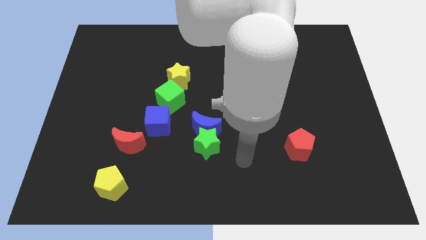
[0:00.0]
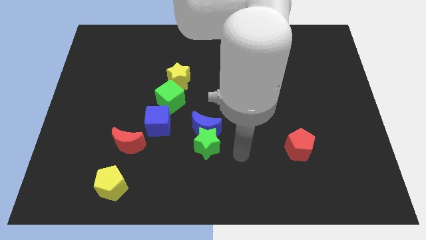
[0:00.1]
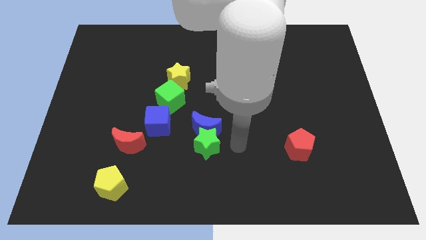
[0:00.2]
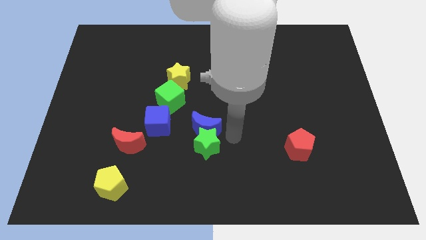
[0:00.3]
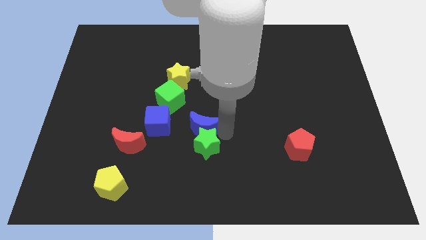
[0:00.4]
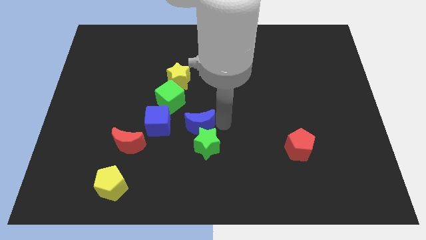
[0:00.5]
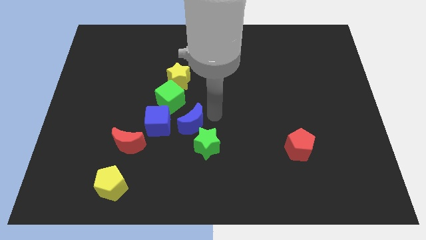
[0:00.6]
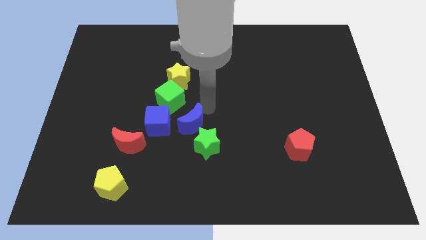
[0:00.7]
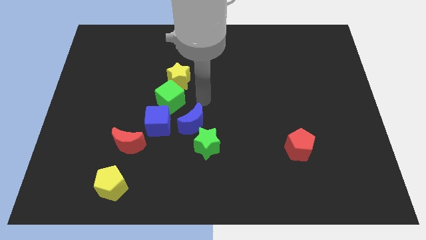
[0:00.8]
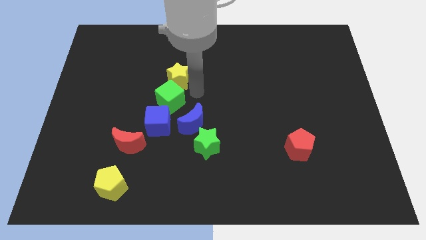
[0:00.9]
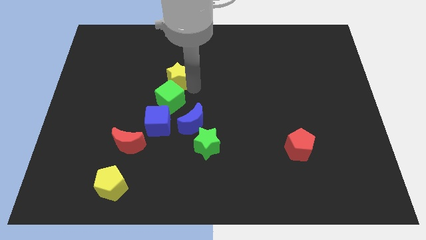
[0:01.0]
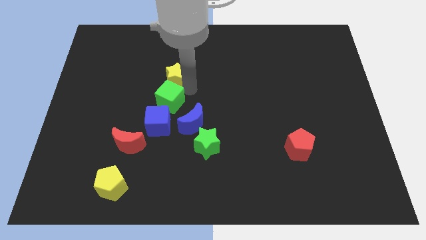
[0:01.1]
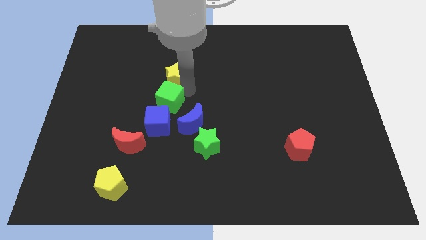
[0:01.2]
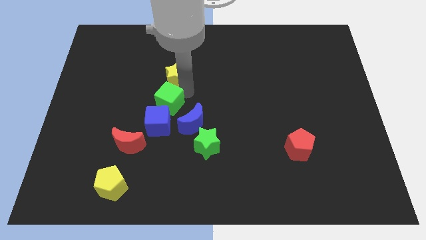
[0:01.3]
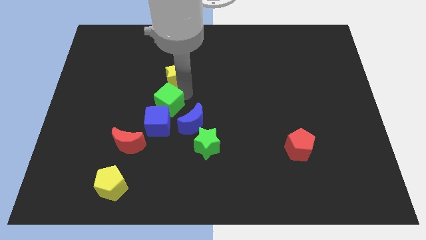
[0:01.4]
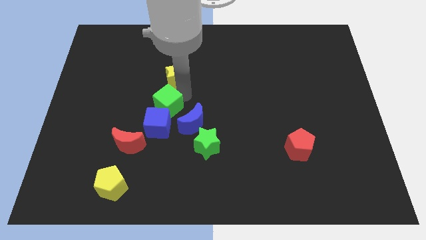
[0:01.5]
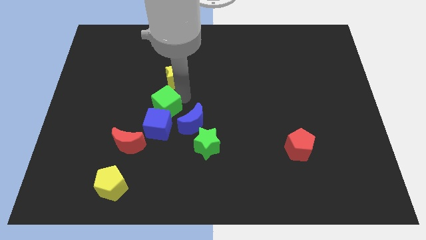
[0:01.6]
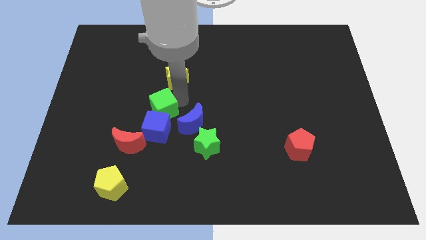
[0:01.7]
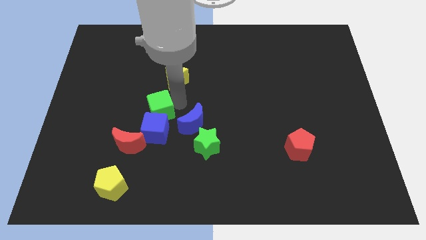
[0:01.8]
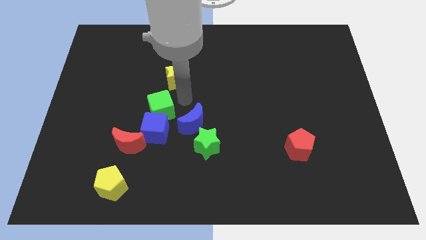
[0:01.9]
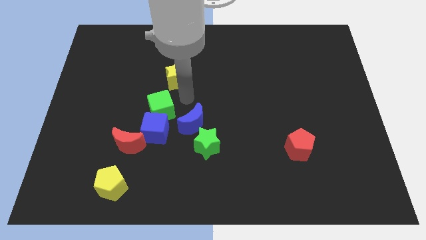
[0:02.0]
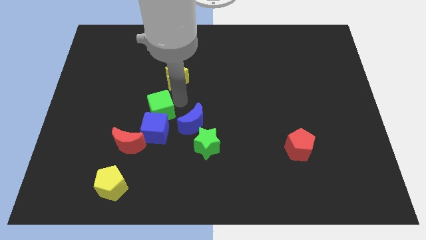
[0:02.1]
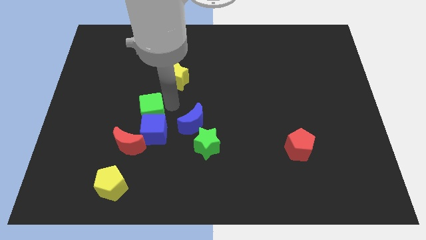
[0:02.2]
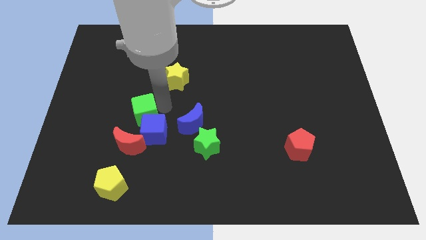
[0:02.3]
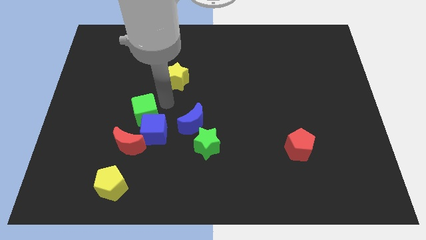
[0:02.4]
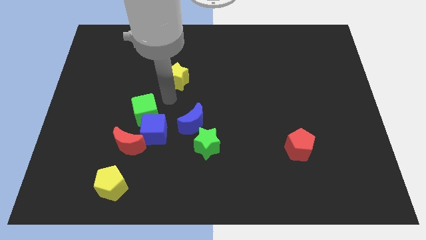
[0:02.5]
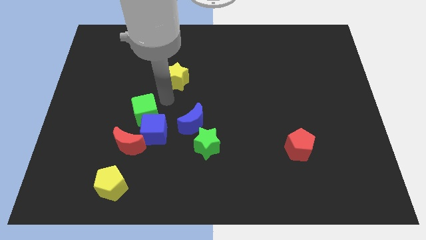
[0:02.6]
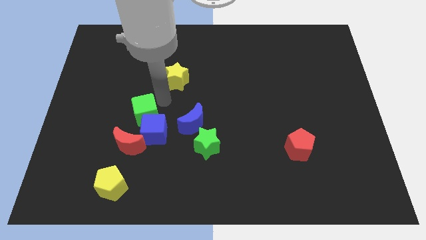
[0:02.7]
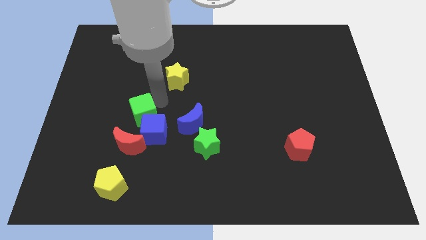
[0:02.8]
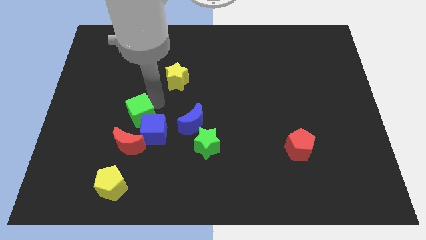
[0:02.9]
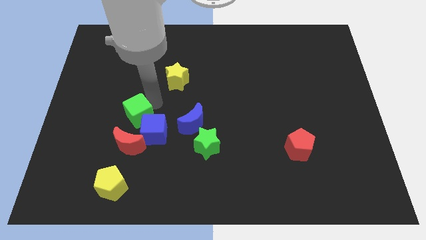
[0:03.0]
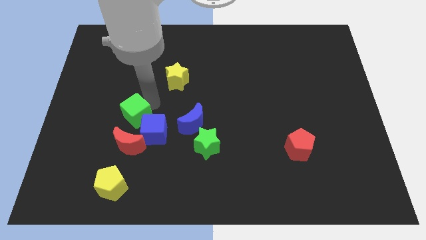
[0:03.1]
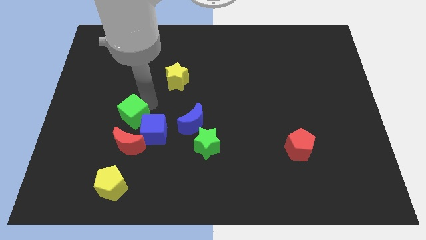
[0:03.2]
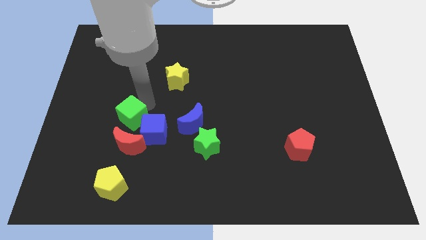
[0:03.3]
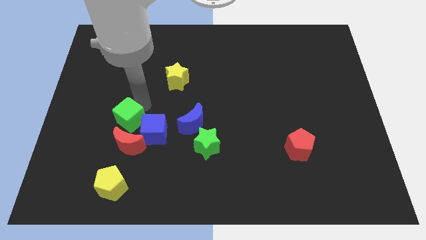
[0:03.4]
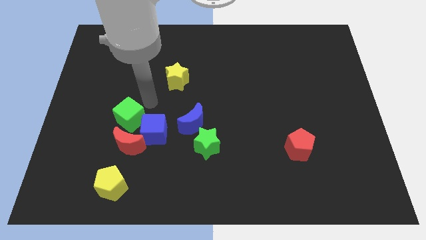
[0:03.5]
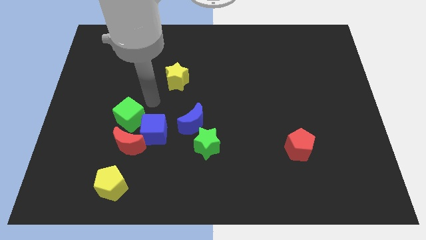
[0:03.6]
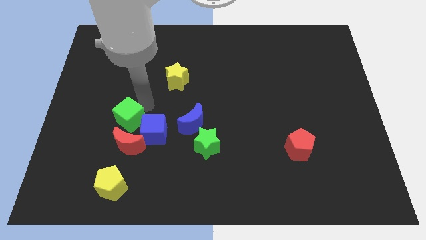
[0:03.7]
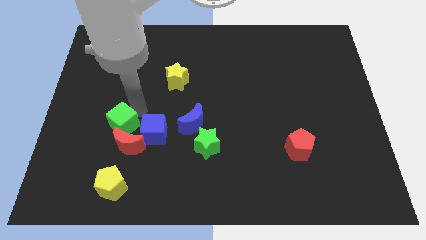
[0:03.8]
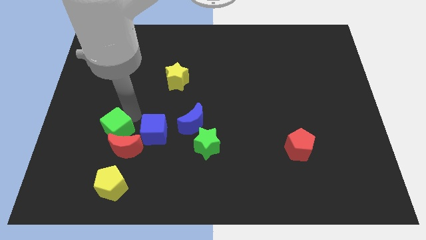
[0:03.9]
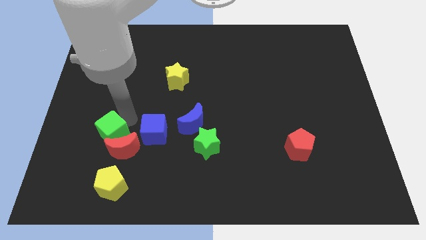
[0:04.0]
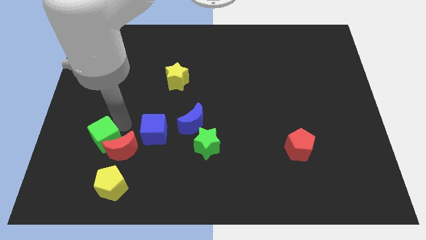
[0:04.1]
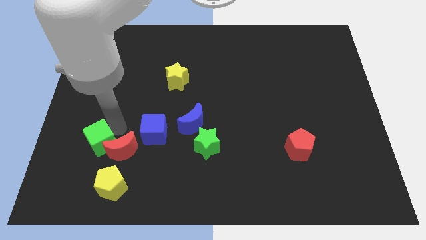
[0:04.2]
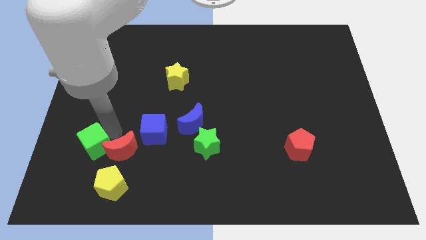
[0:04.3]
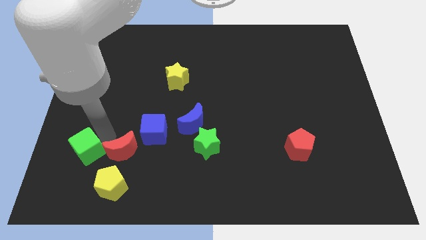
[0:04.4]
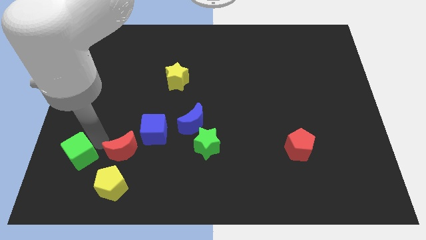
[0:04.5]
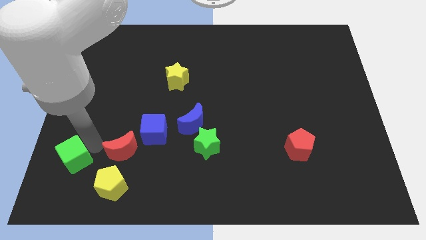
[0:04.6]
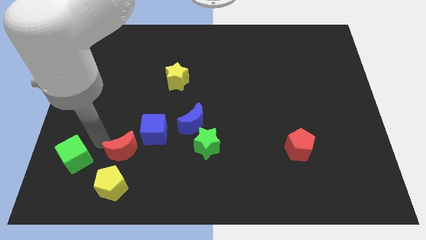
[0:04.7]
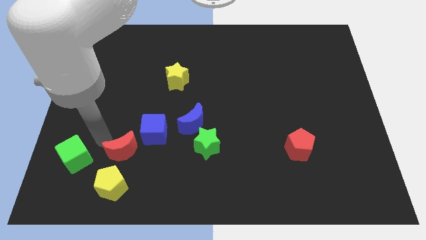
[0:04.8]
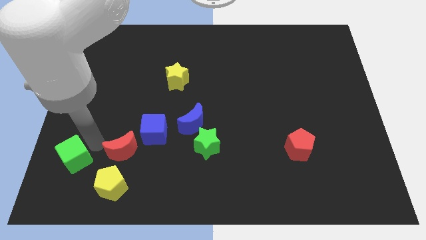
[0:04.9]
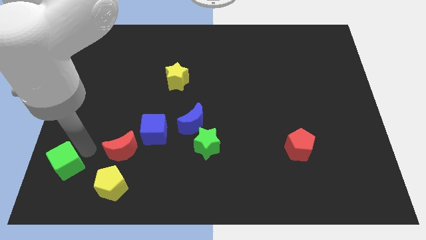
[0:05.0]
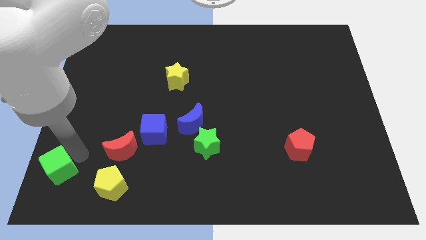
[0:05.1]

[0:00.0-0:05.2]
put the green cube to the bottom left of the board

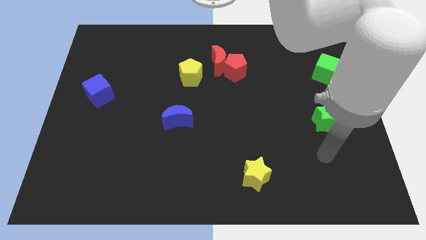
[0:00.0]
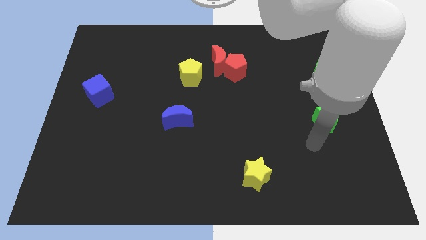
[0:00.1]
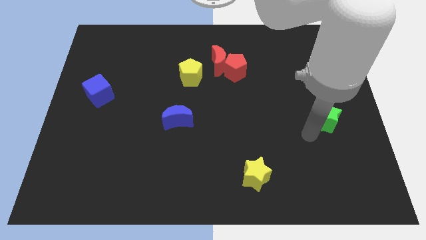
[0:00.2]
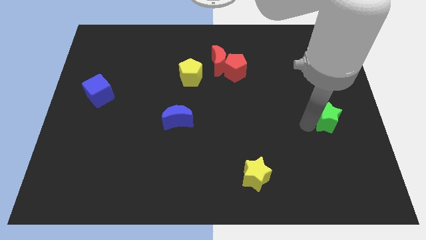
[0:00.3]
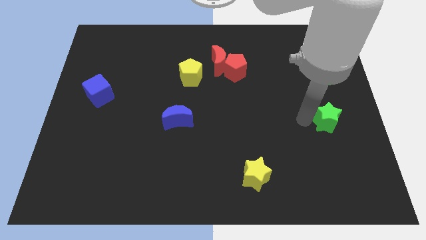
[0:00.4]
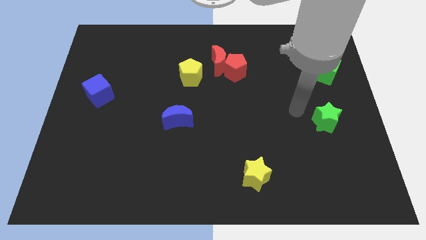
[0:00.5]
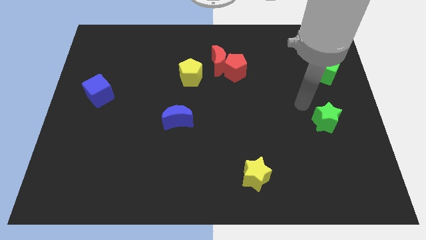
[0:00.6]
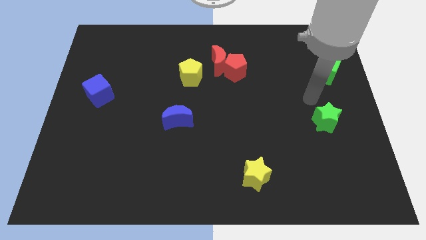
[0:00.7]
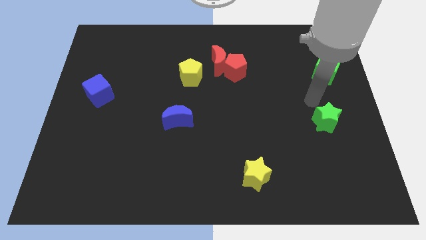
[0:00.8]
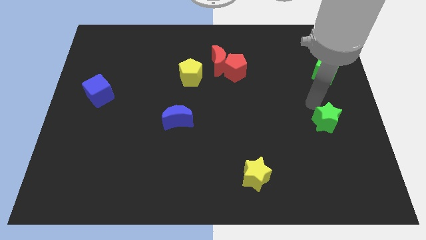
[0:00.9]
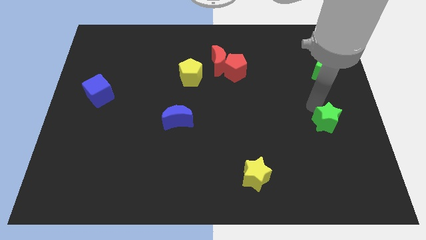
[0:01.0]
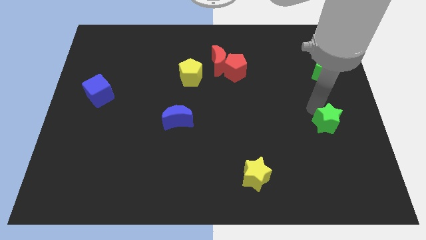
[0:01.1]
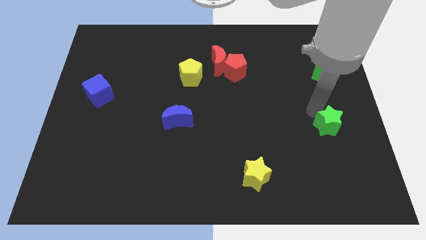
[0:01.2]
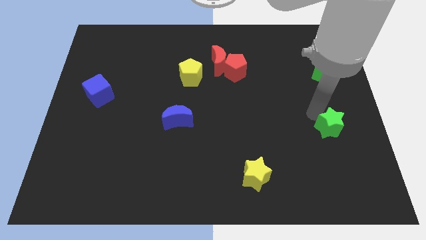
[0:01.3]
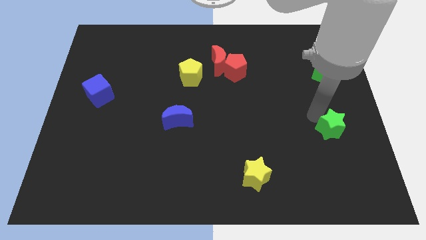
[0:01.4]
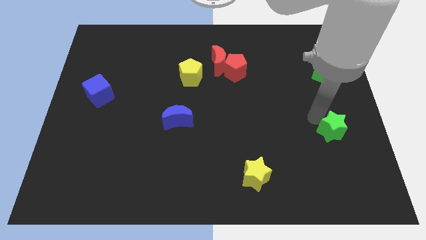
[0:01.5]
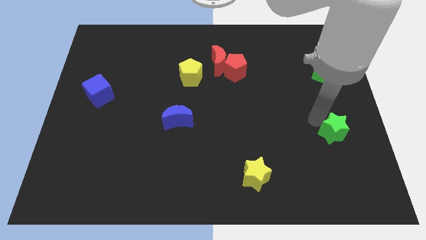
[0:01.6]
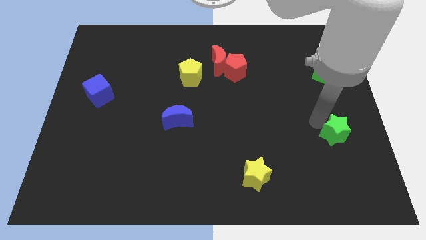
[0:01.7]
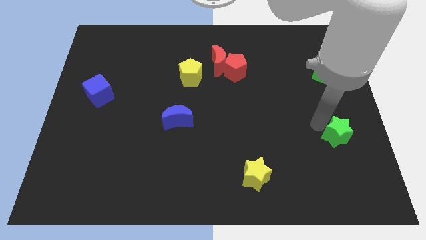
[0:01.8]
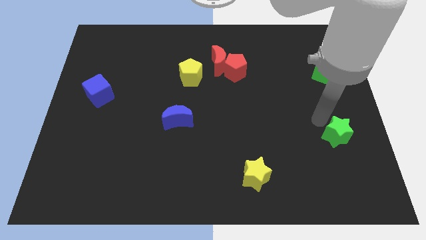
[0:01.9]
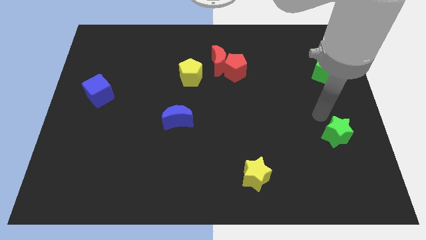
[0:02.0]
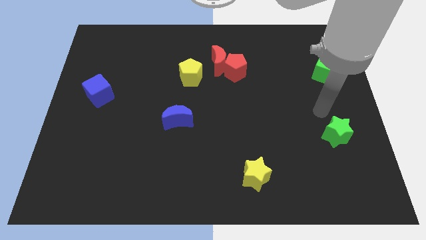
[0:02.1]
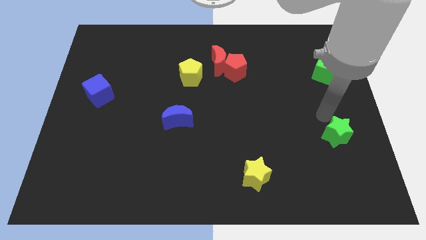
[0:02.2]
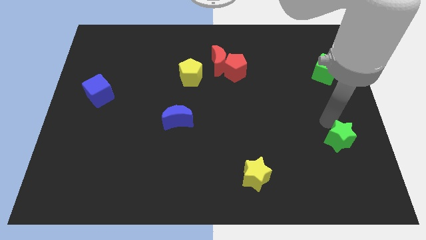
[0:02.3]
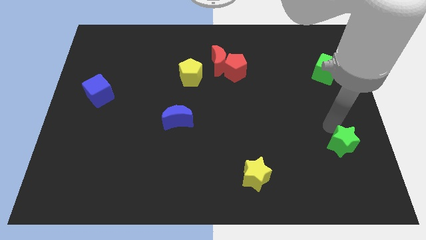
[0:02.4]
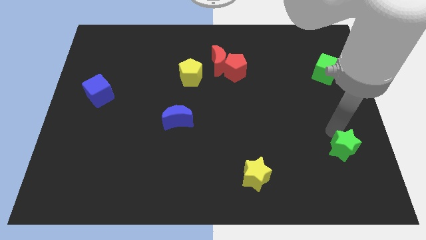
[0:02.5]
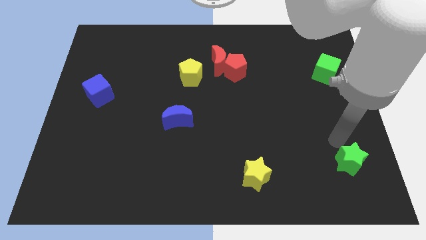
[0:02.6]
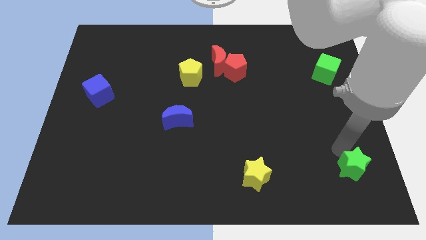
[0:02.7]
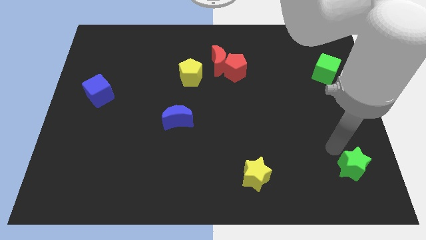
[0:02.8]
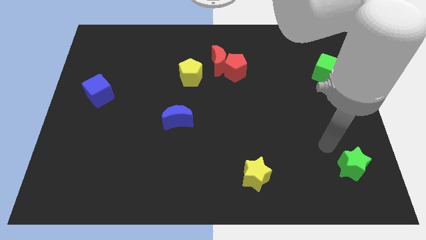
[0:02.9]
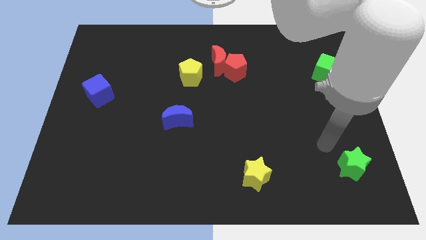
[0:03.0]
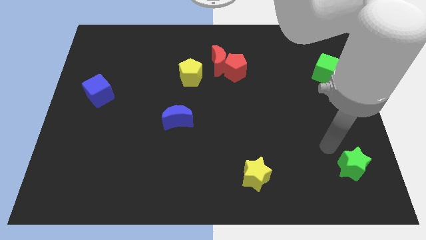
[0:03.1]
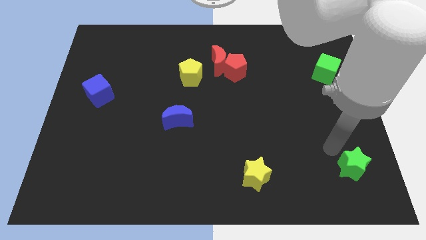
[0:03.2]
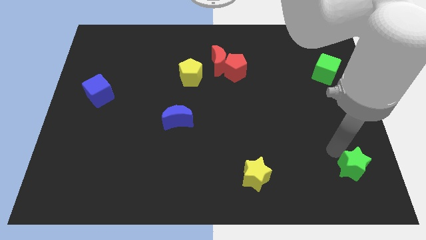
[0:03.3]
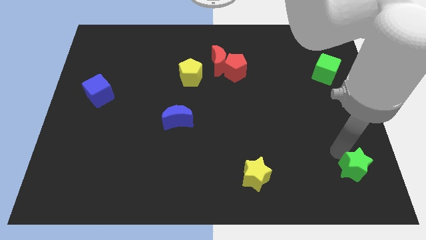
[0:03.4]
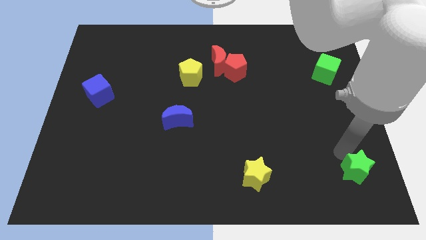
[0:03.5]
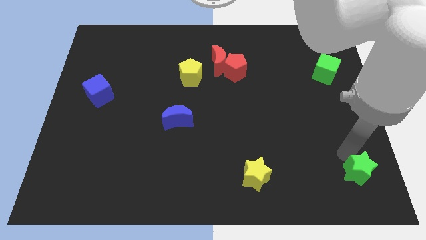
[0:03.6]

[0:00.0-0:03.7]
slide the green star to the bottom right corner
